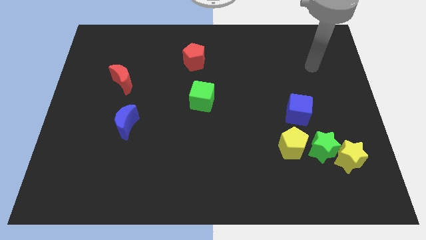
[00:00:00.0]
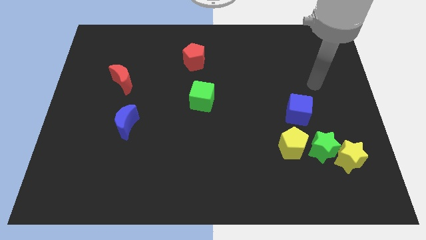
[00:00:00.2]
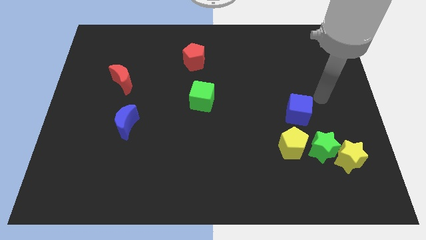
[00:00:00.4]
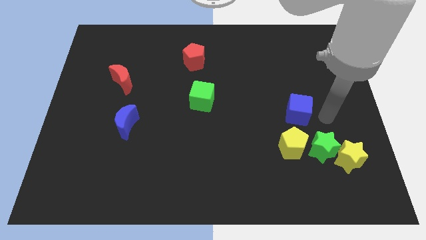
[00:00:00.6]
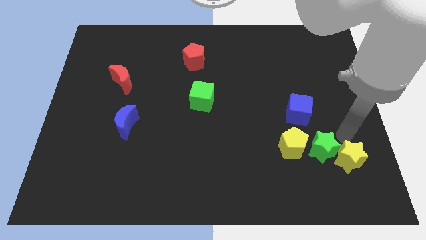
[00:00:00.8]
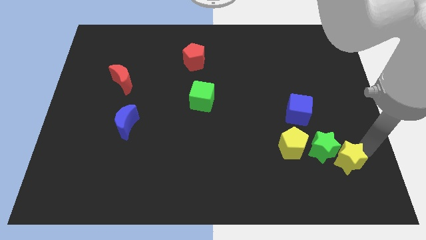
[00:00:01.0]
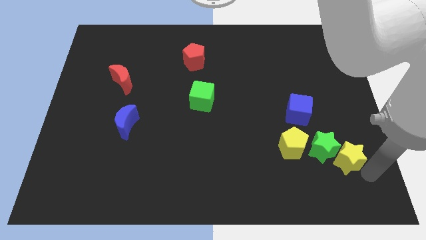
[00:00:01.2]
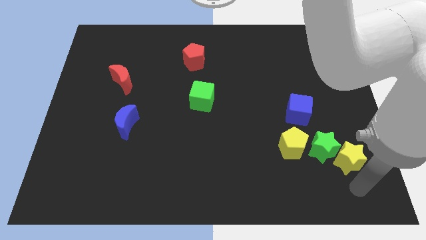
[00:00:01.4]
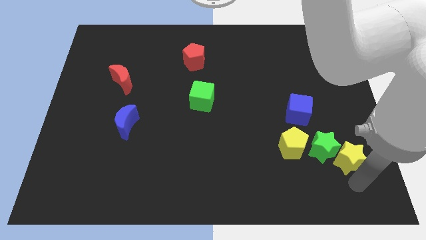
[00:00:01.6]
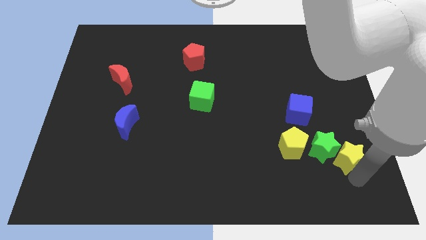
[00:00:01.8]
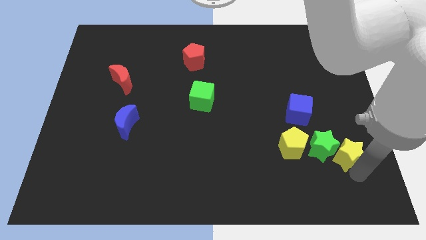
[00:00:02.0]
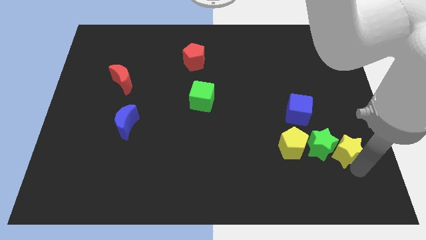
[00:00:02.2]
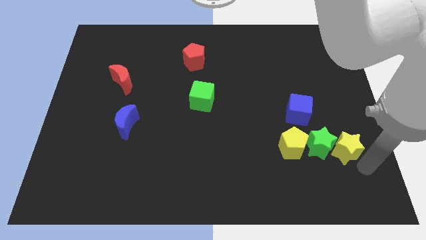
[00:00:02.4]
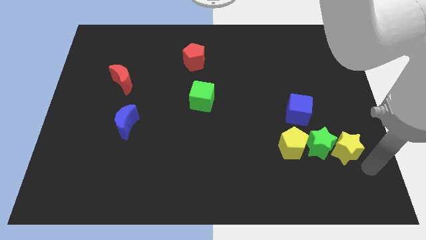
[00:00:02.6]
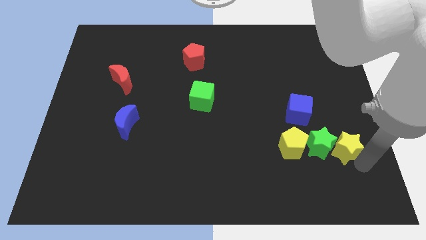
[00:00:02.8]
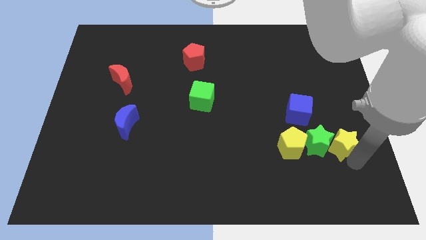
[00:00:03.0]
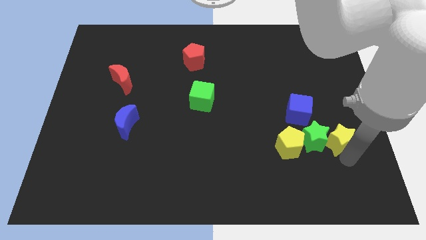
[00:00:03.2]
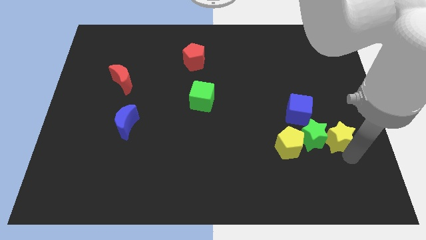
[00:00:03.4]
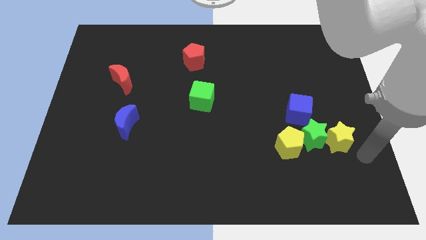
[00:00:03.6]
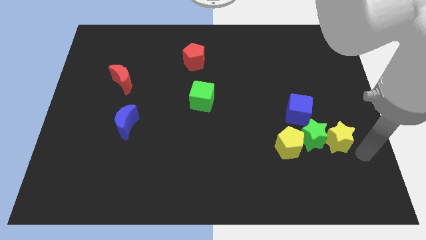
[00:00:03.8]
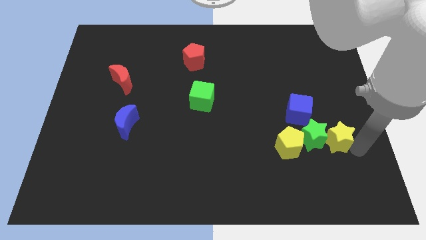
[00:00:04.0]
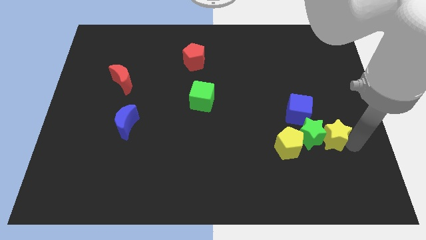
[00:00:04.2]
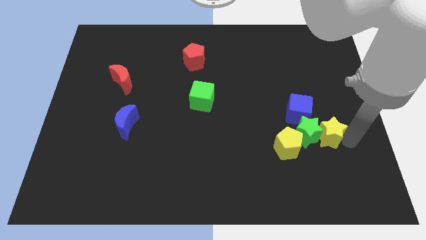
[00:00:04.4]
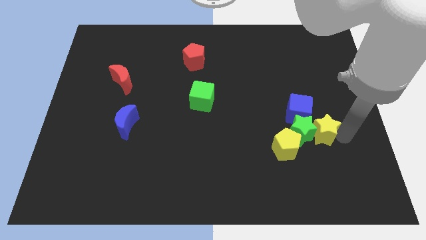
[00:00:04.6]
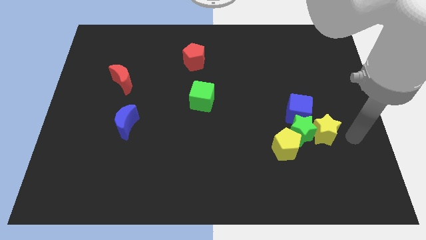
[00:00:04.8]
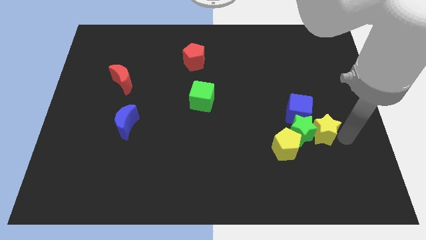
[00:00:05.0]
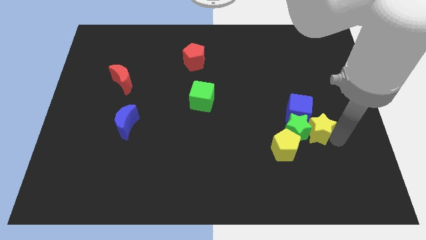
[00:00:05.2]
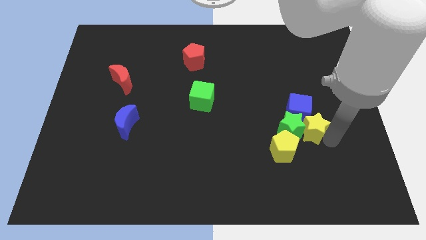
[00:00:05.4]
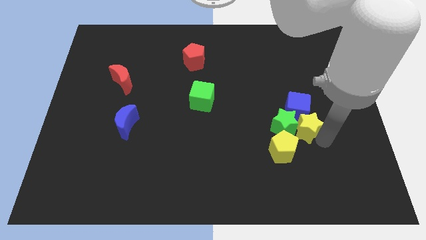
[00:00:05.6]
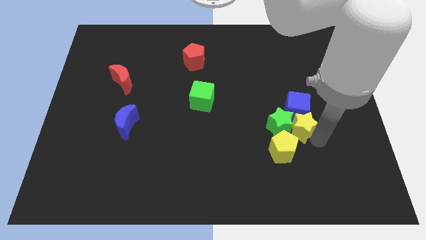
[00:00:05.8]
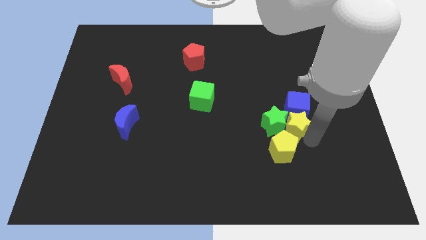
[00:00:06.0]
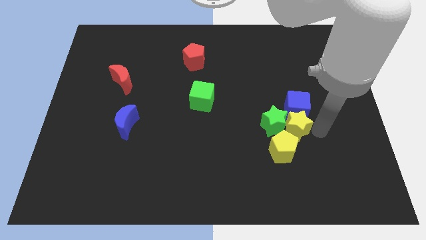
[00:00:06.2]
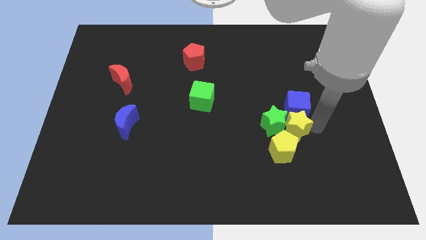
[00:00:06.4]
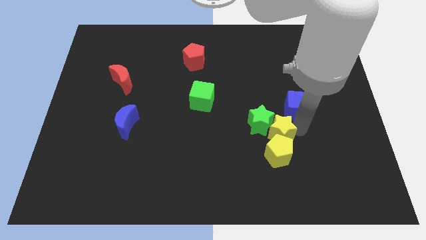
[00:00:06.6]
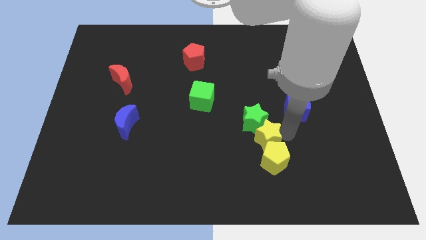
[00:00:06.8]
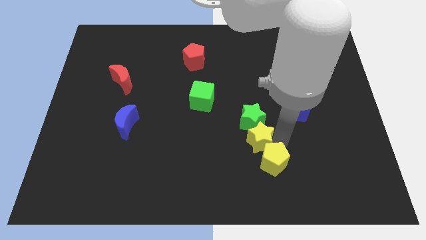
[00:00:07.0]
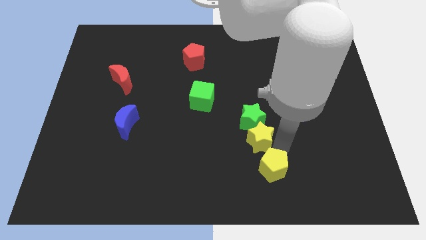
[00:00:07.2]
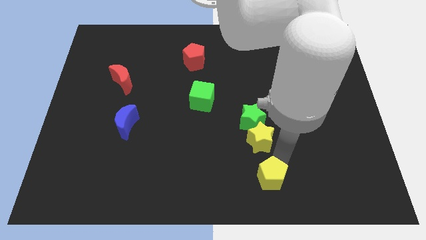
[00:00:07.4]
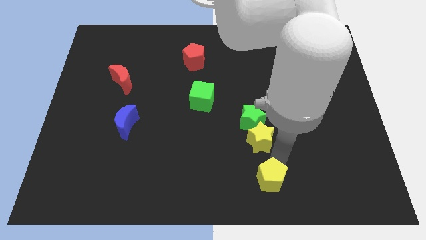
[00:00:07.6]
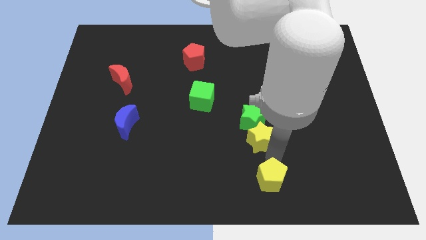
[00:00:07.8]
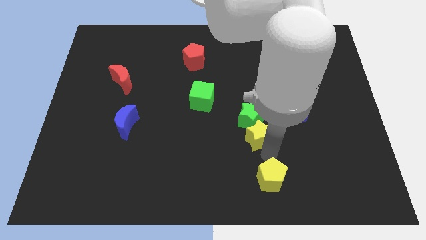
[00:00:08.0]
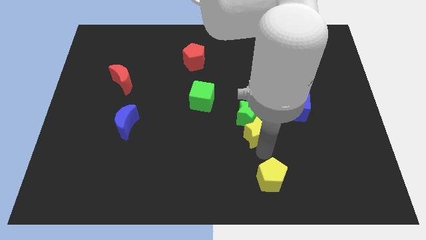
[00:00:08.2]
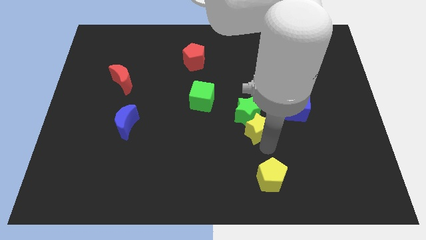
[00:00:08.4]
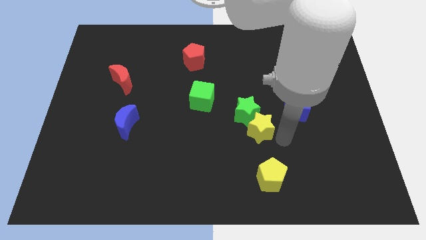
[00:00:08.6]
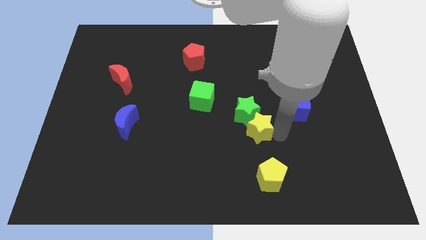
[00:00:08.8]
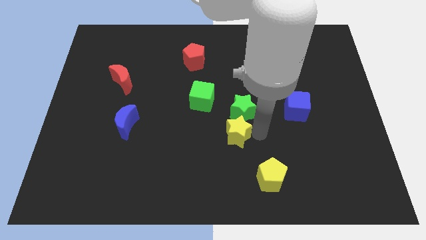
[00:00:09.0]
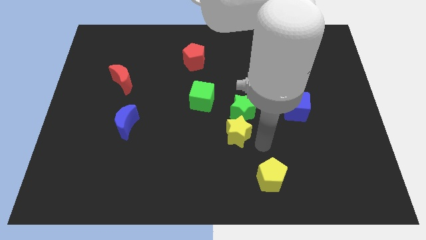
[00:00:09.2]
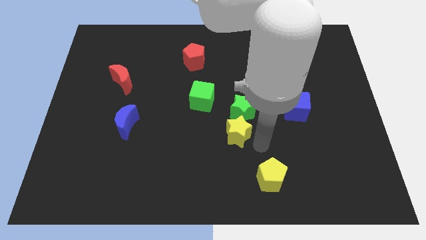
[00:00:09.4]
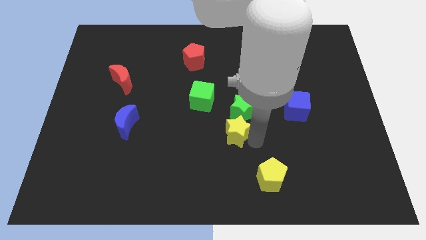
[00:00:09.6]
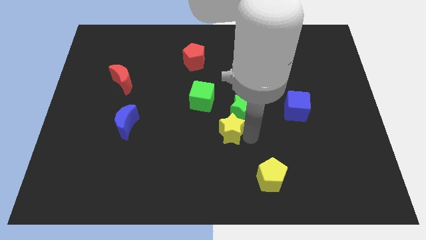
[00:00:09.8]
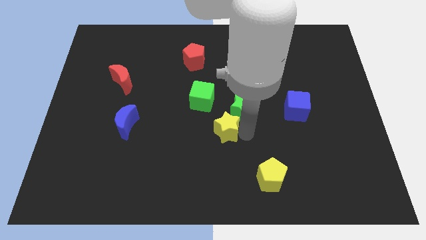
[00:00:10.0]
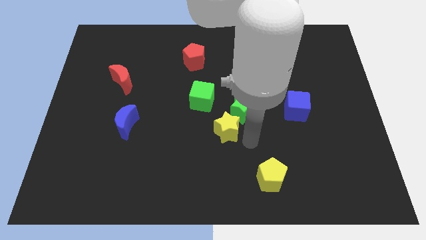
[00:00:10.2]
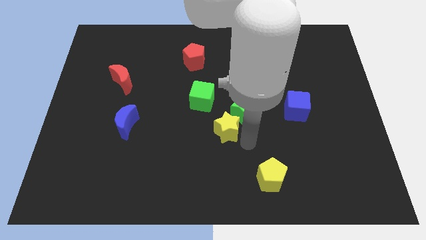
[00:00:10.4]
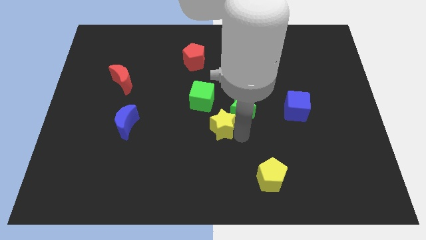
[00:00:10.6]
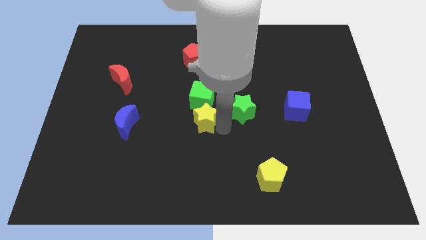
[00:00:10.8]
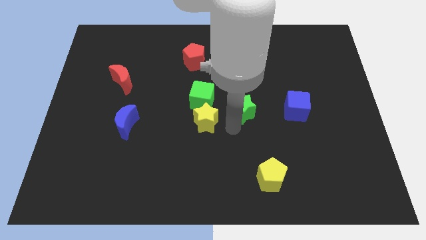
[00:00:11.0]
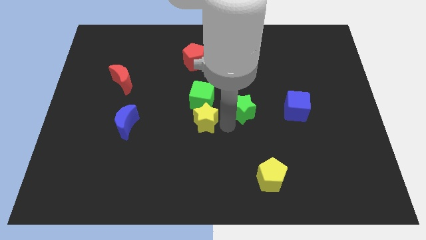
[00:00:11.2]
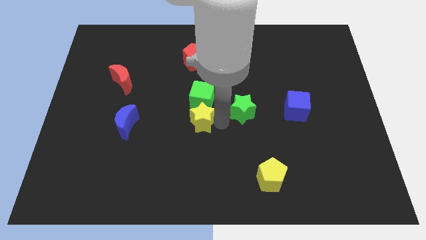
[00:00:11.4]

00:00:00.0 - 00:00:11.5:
slide the yellow star to the bottom left side of the green cube

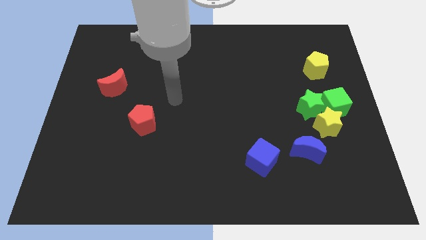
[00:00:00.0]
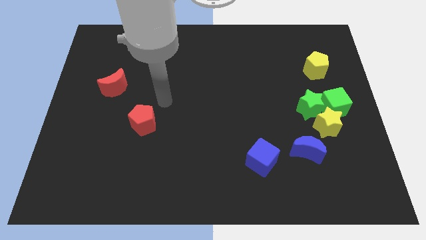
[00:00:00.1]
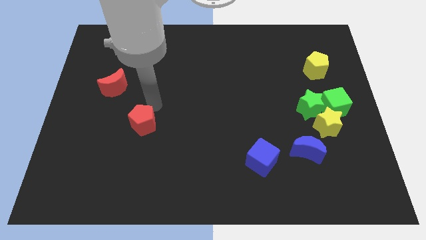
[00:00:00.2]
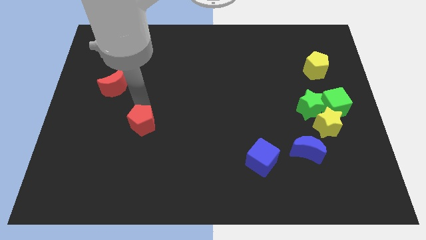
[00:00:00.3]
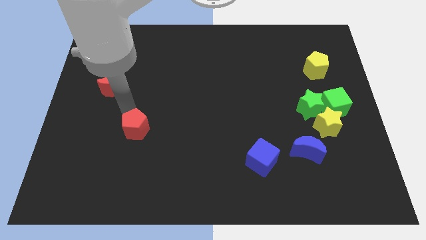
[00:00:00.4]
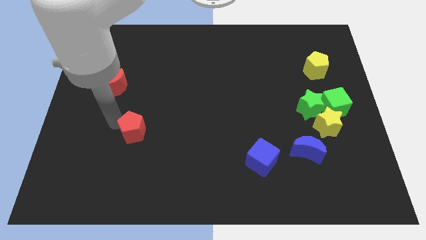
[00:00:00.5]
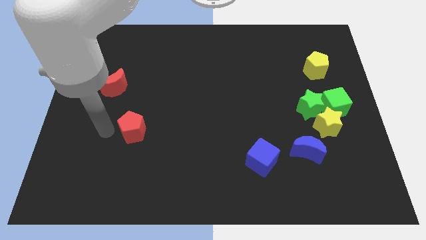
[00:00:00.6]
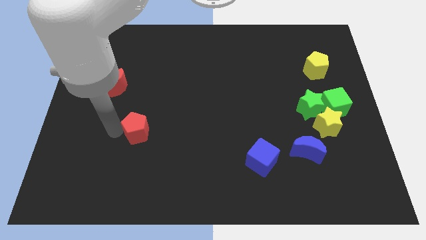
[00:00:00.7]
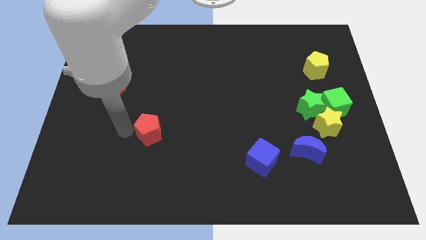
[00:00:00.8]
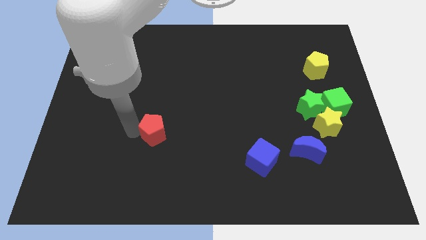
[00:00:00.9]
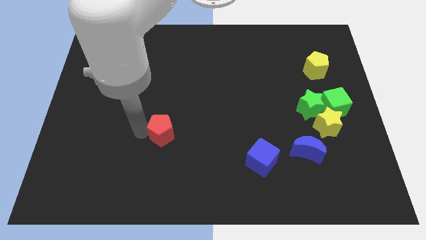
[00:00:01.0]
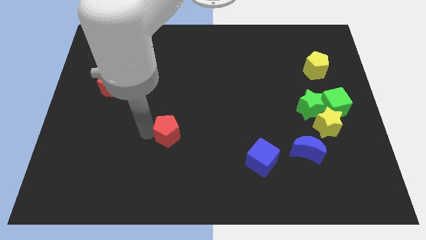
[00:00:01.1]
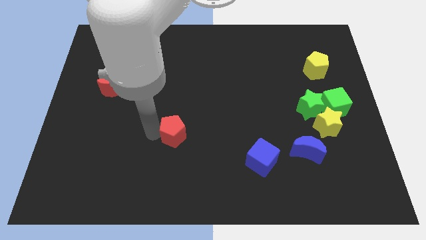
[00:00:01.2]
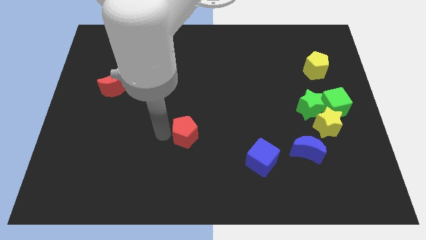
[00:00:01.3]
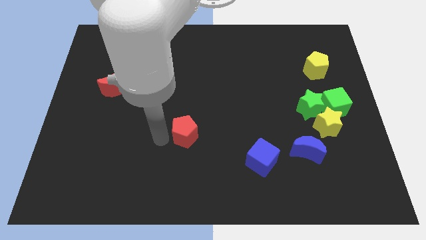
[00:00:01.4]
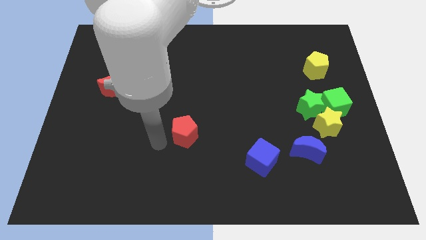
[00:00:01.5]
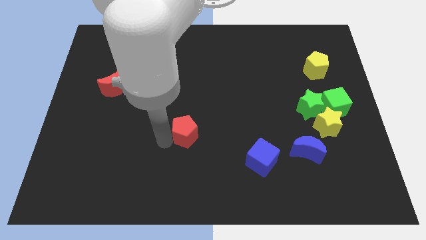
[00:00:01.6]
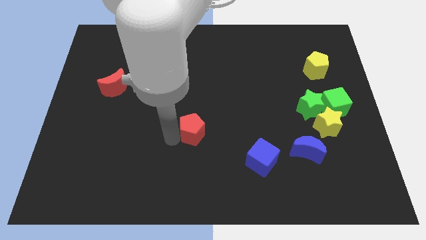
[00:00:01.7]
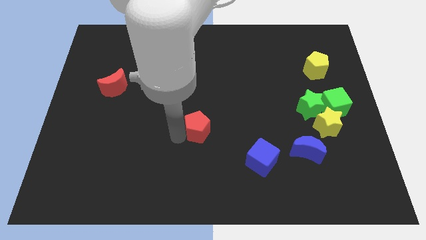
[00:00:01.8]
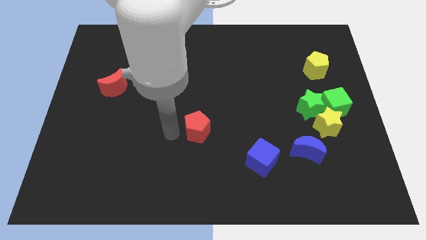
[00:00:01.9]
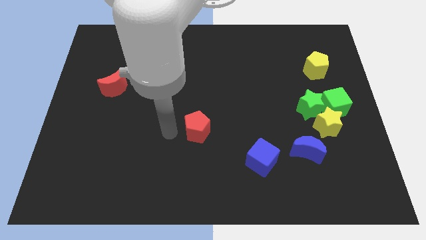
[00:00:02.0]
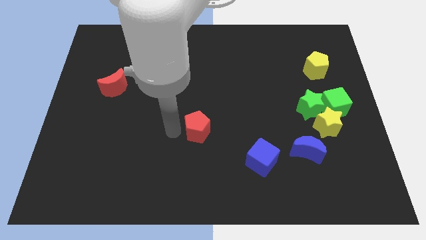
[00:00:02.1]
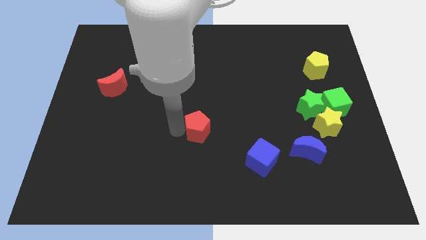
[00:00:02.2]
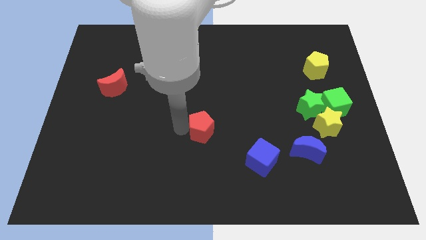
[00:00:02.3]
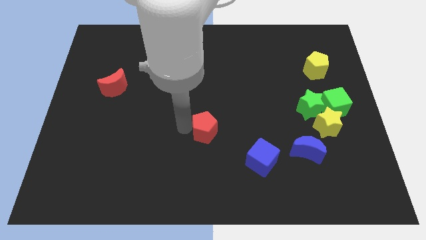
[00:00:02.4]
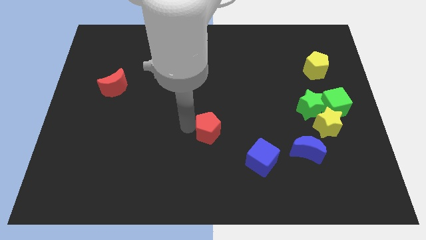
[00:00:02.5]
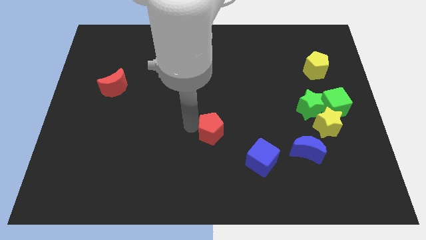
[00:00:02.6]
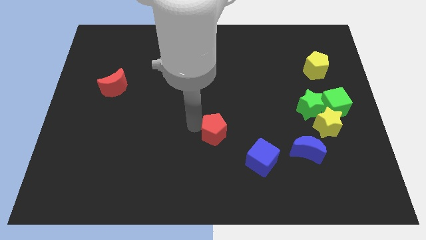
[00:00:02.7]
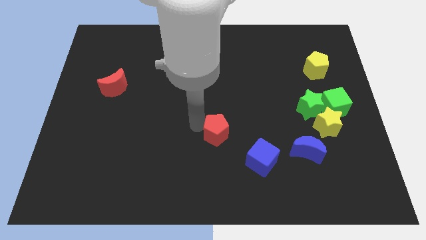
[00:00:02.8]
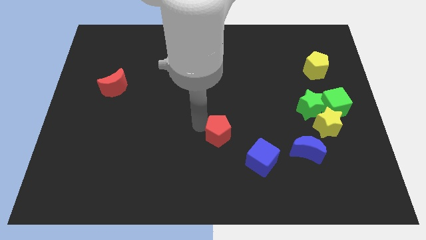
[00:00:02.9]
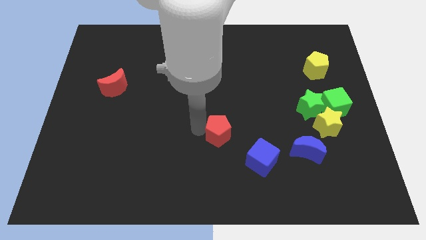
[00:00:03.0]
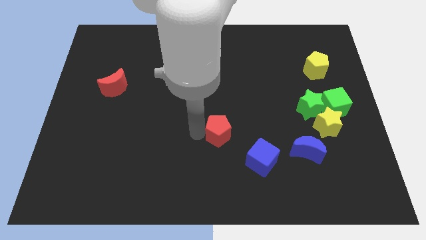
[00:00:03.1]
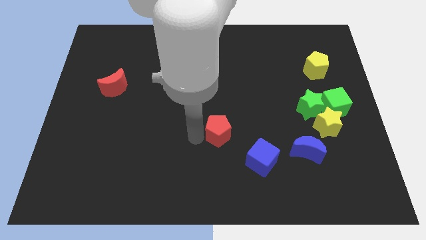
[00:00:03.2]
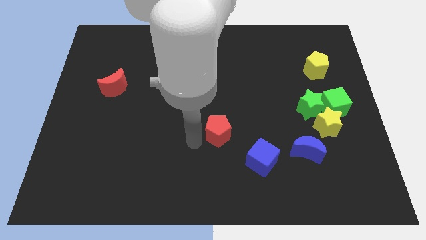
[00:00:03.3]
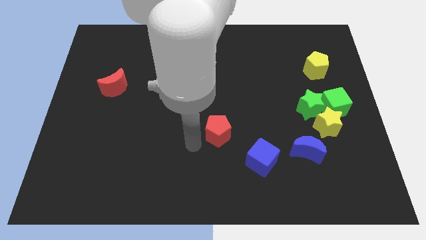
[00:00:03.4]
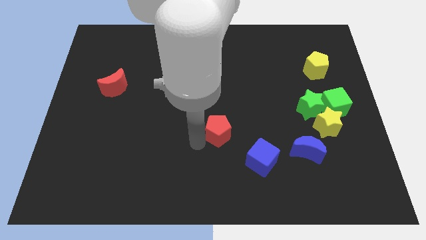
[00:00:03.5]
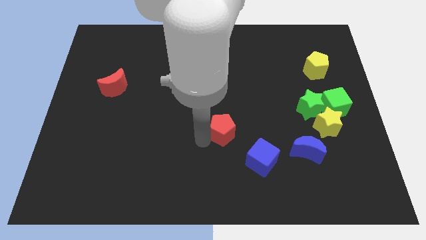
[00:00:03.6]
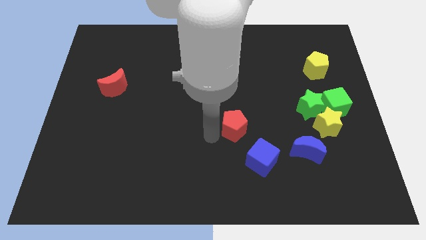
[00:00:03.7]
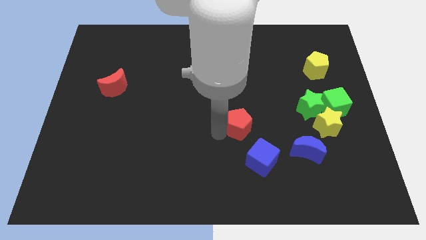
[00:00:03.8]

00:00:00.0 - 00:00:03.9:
put the red pentagon above the blue cube
